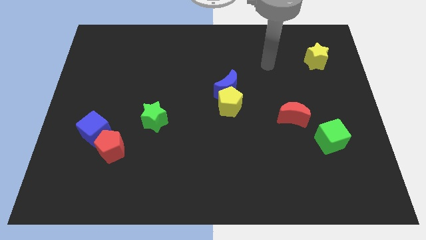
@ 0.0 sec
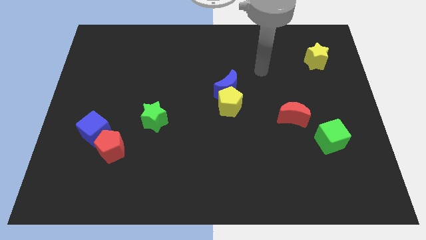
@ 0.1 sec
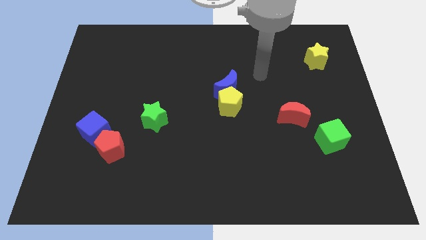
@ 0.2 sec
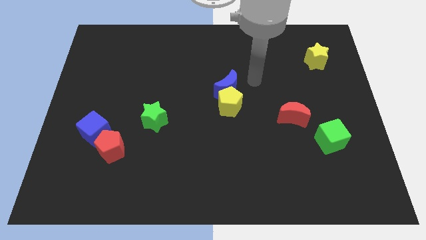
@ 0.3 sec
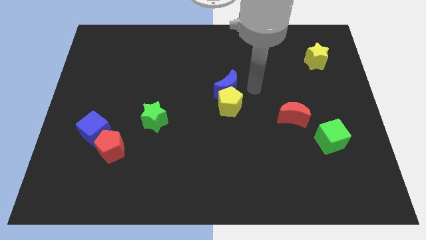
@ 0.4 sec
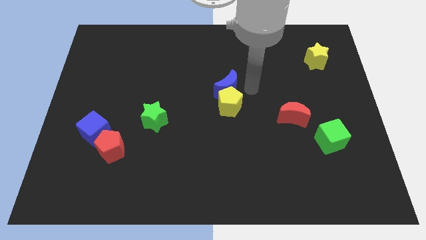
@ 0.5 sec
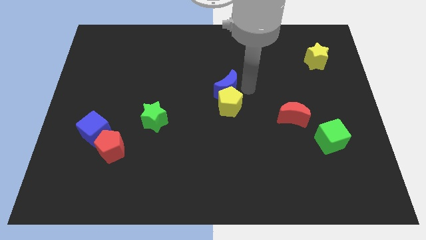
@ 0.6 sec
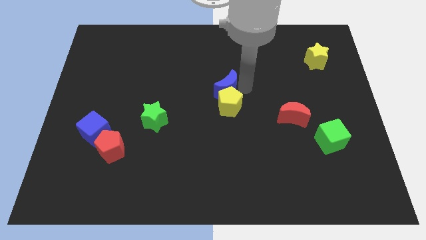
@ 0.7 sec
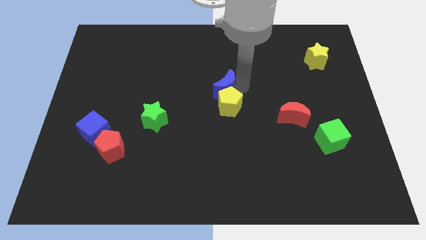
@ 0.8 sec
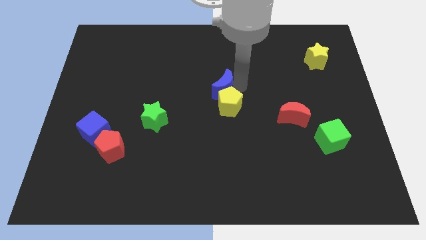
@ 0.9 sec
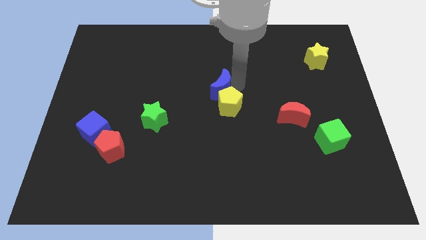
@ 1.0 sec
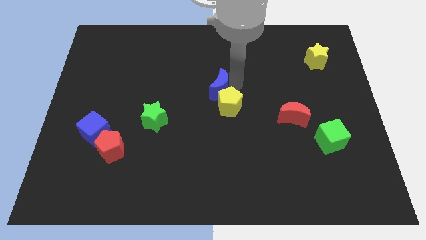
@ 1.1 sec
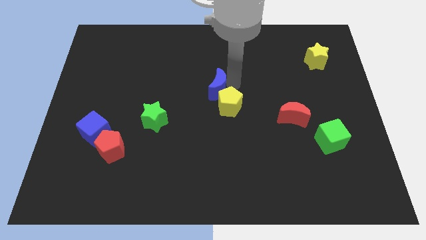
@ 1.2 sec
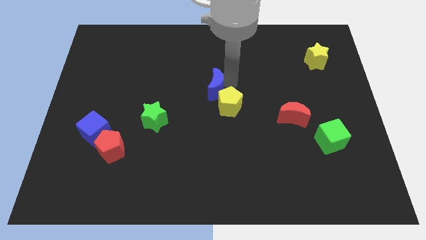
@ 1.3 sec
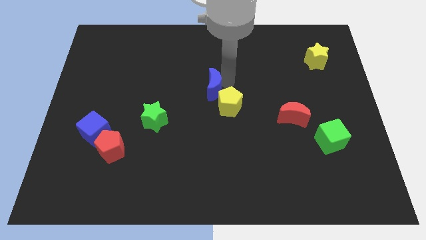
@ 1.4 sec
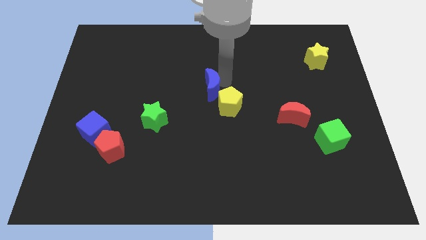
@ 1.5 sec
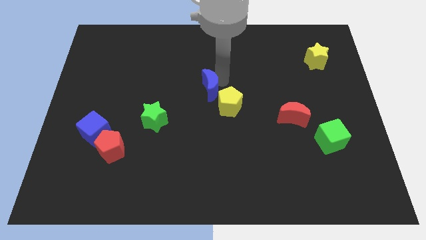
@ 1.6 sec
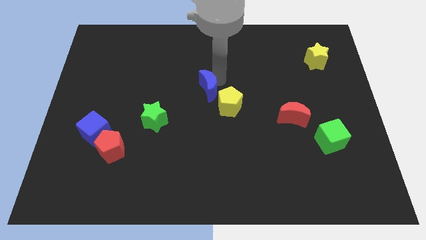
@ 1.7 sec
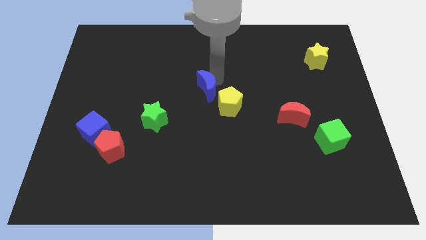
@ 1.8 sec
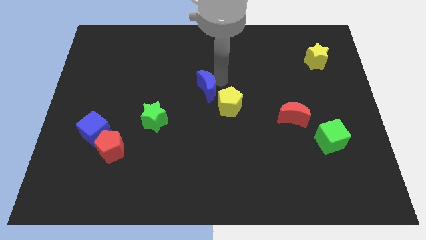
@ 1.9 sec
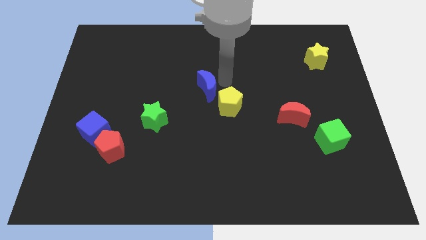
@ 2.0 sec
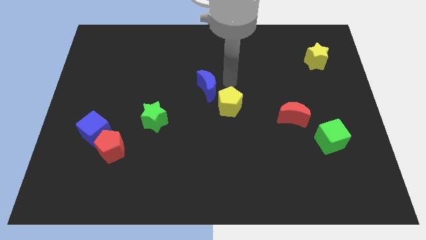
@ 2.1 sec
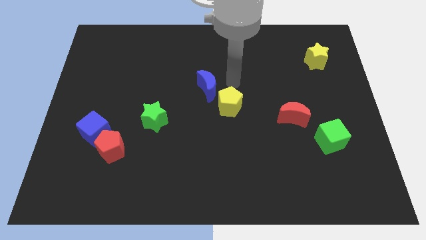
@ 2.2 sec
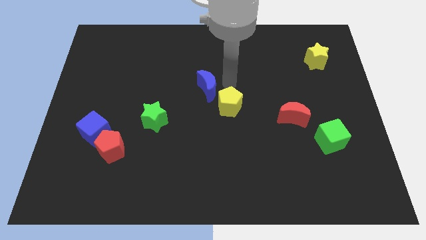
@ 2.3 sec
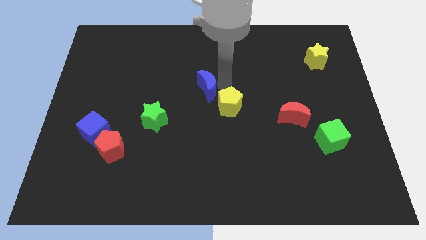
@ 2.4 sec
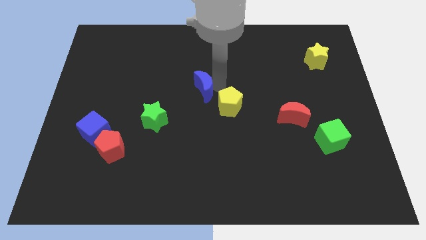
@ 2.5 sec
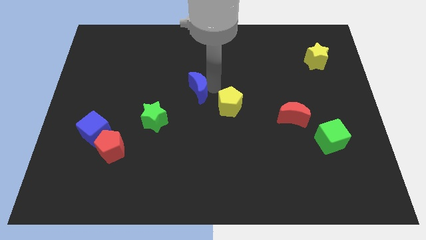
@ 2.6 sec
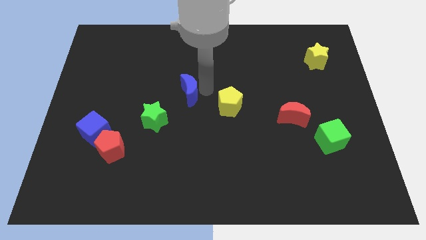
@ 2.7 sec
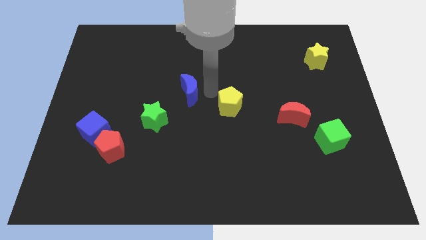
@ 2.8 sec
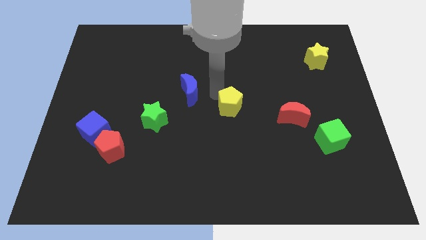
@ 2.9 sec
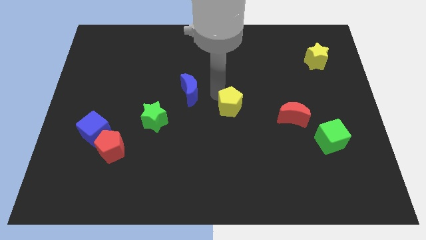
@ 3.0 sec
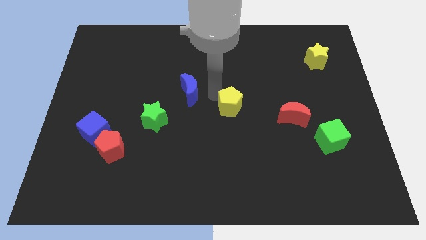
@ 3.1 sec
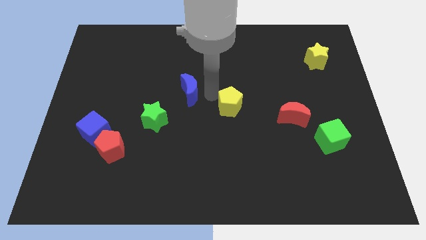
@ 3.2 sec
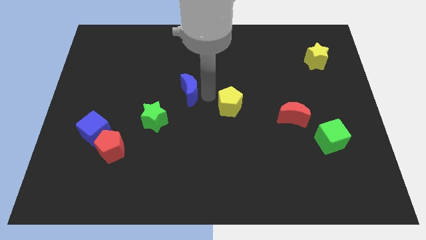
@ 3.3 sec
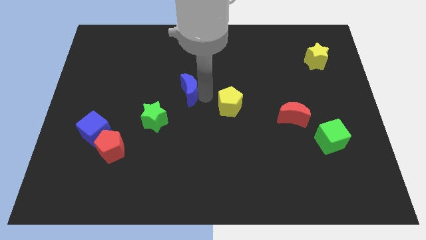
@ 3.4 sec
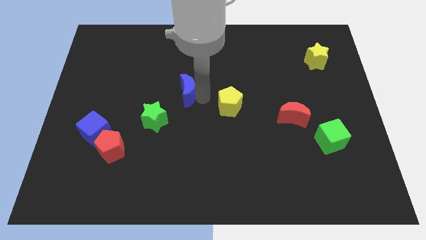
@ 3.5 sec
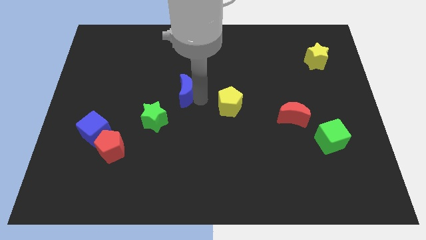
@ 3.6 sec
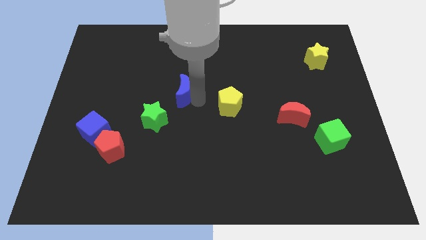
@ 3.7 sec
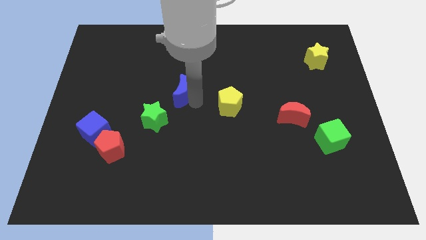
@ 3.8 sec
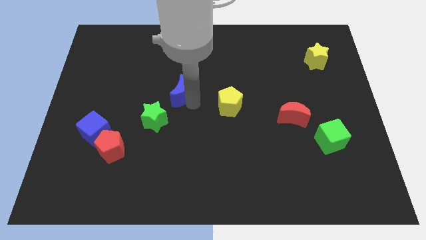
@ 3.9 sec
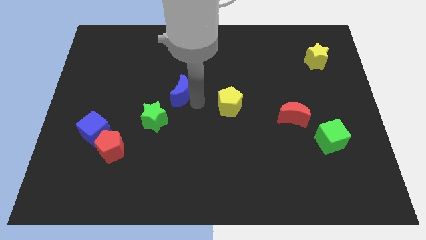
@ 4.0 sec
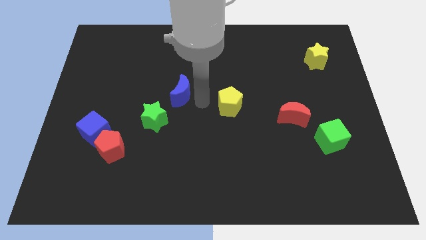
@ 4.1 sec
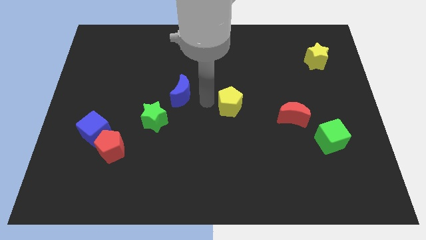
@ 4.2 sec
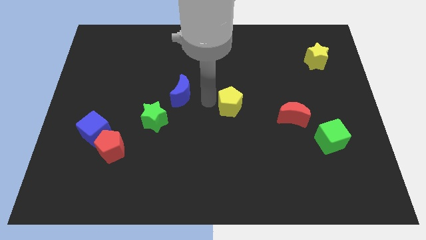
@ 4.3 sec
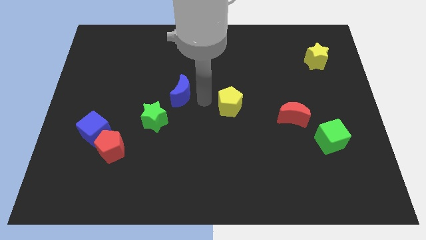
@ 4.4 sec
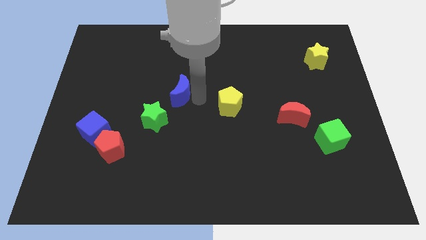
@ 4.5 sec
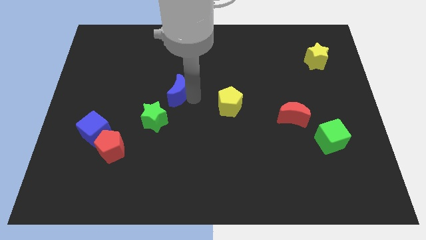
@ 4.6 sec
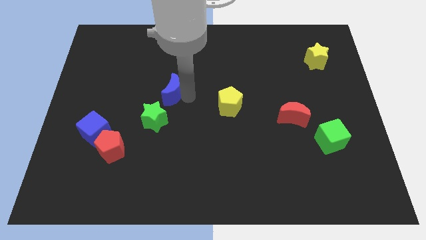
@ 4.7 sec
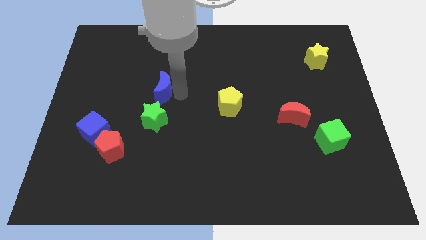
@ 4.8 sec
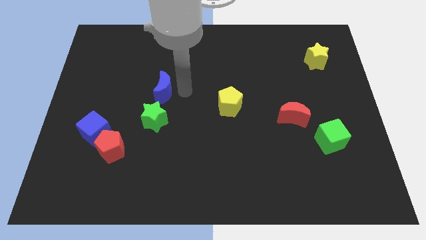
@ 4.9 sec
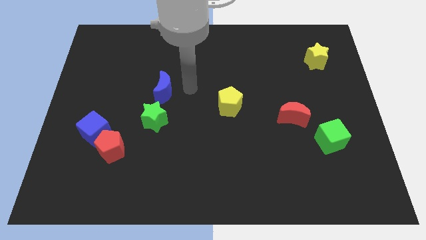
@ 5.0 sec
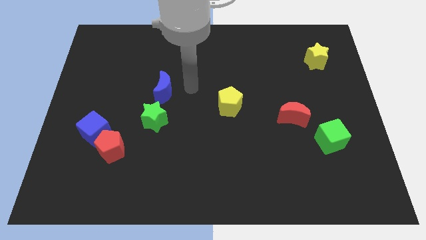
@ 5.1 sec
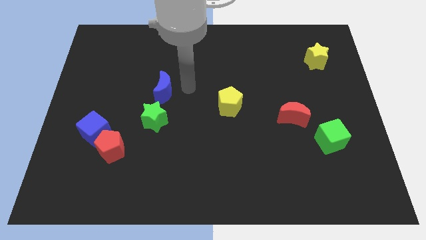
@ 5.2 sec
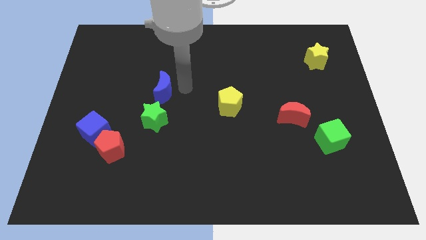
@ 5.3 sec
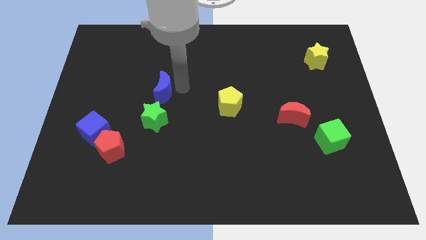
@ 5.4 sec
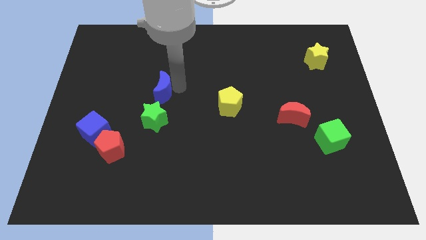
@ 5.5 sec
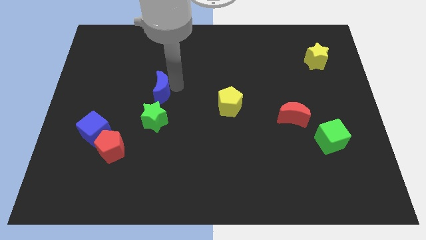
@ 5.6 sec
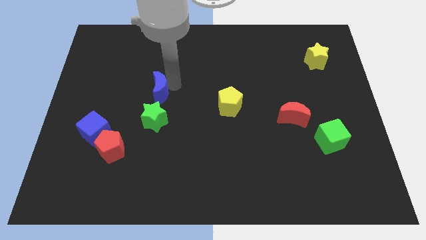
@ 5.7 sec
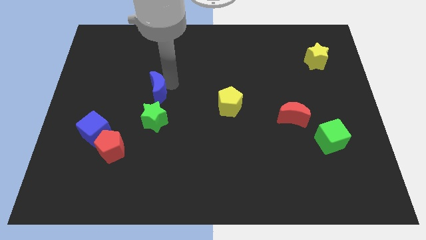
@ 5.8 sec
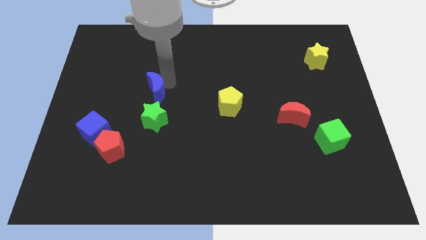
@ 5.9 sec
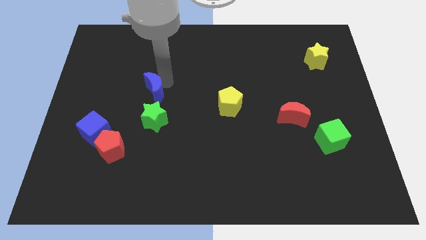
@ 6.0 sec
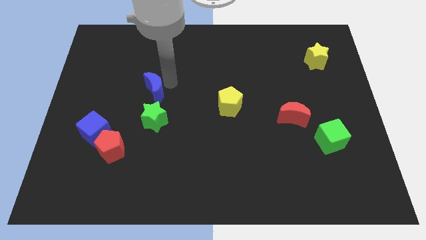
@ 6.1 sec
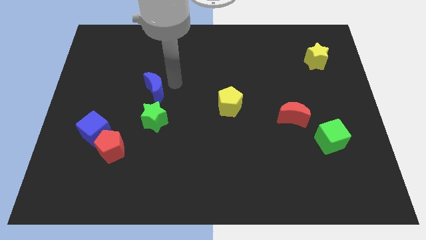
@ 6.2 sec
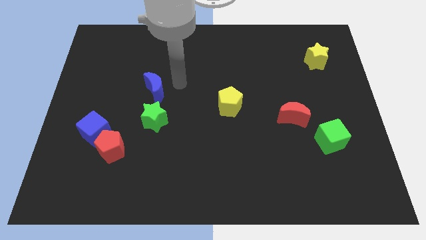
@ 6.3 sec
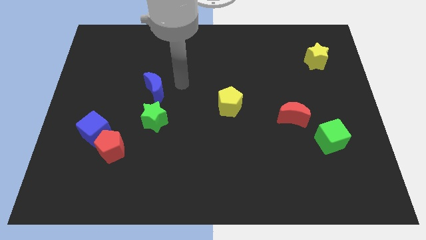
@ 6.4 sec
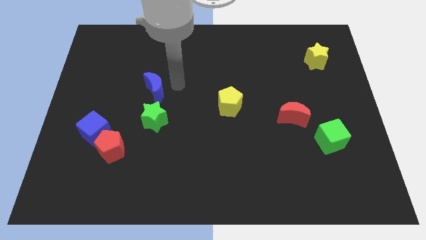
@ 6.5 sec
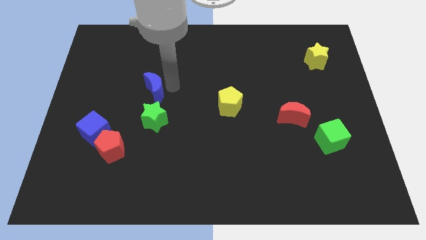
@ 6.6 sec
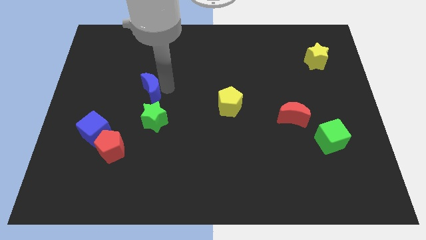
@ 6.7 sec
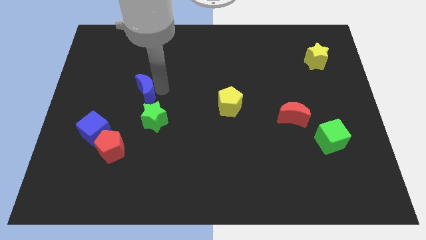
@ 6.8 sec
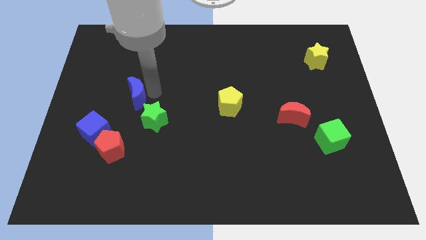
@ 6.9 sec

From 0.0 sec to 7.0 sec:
push the blue moon left

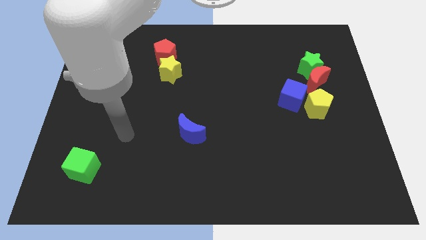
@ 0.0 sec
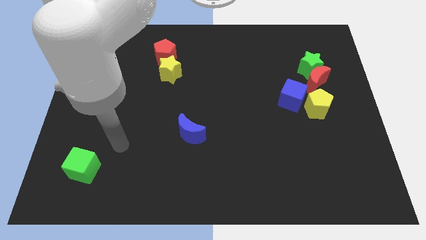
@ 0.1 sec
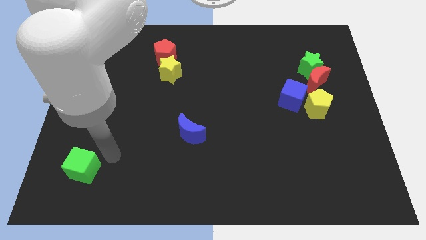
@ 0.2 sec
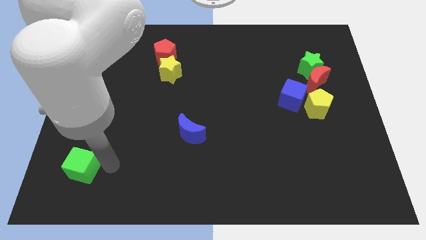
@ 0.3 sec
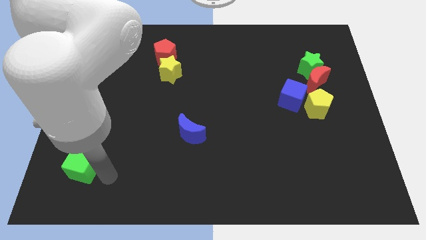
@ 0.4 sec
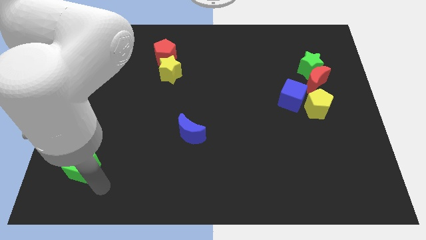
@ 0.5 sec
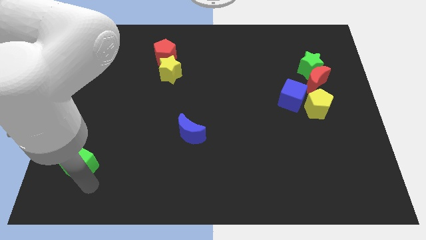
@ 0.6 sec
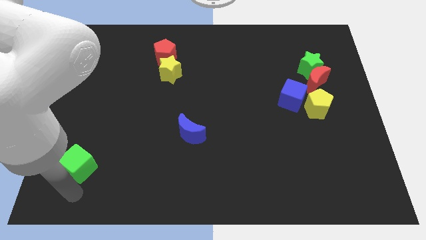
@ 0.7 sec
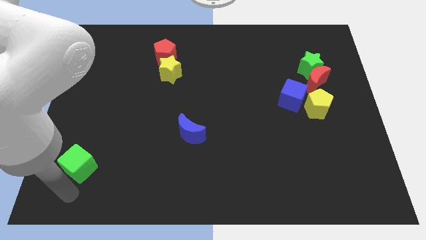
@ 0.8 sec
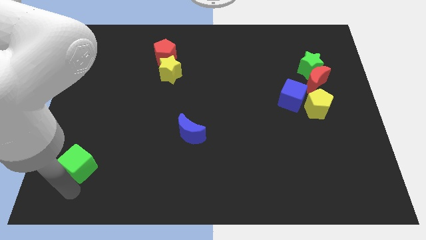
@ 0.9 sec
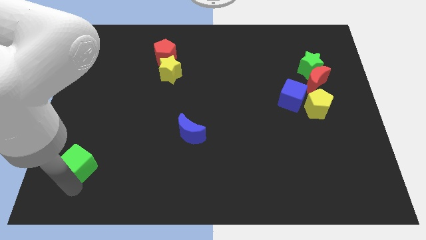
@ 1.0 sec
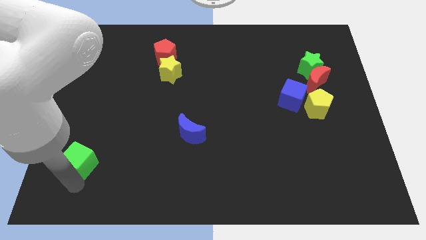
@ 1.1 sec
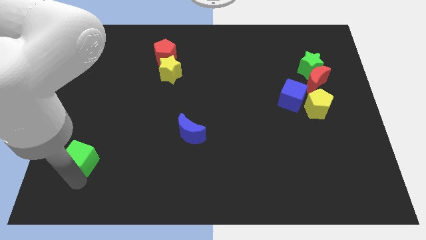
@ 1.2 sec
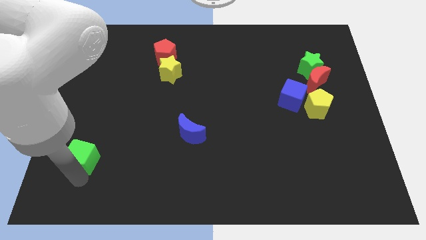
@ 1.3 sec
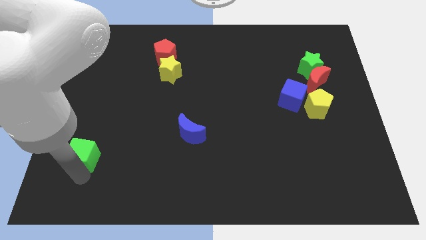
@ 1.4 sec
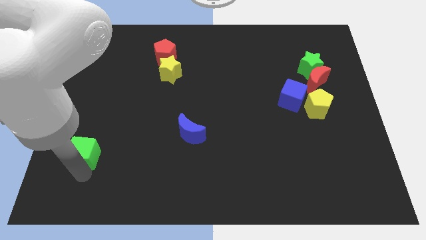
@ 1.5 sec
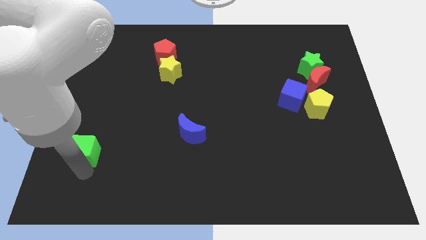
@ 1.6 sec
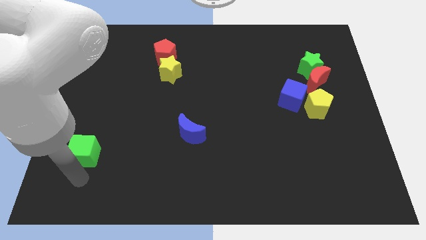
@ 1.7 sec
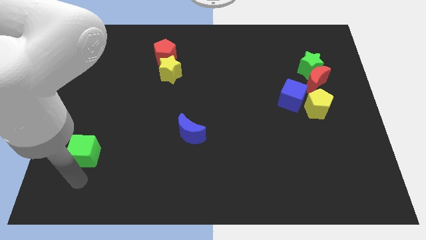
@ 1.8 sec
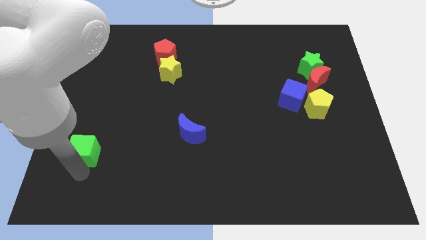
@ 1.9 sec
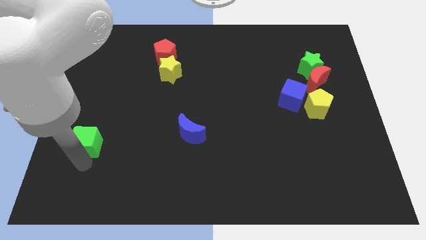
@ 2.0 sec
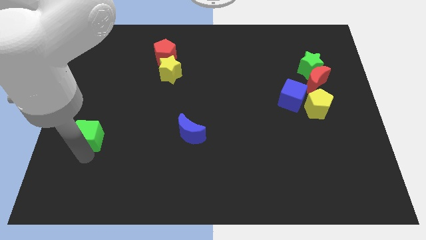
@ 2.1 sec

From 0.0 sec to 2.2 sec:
slightly slide the green cube up
